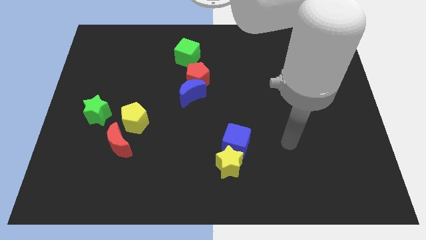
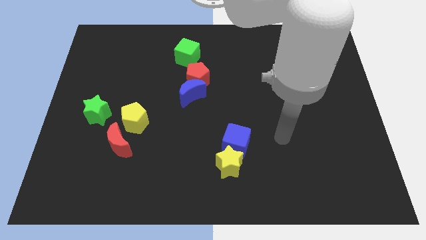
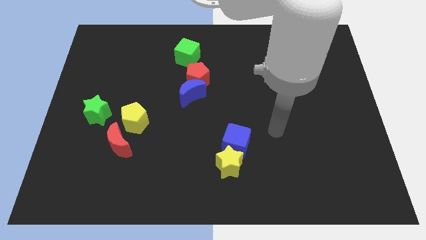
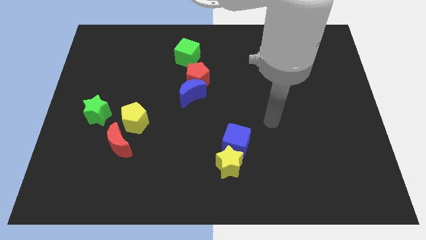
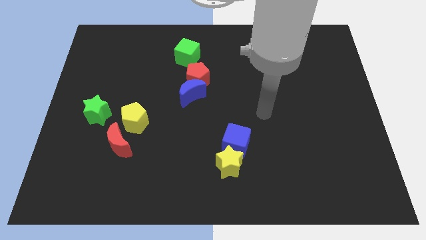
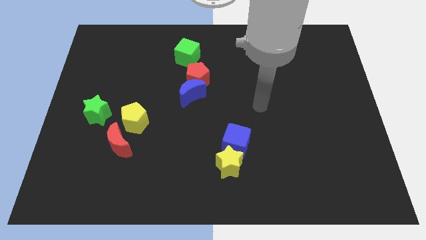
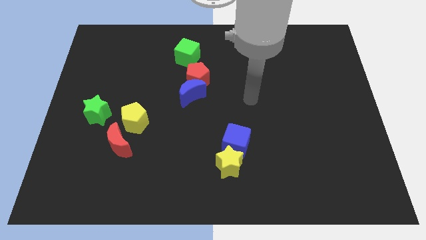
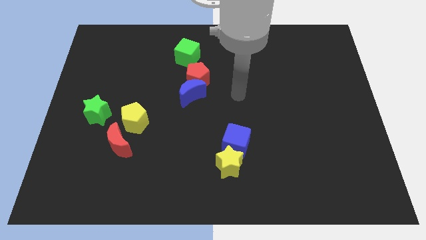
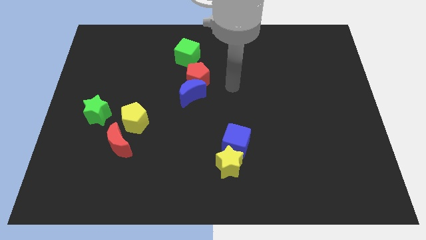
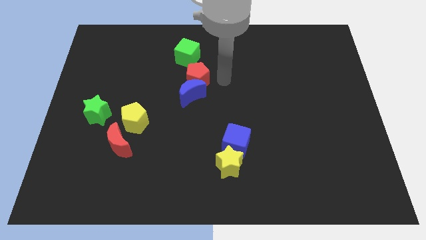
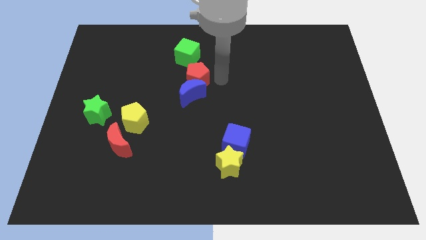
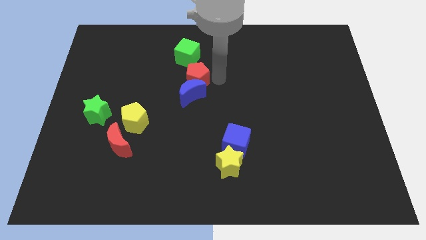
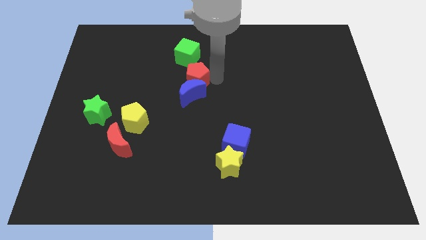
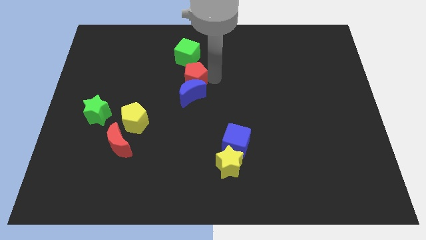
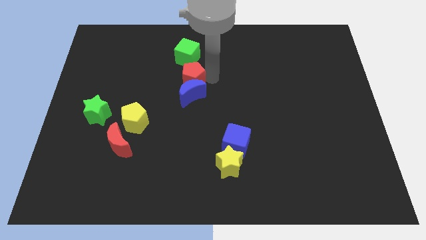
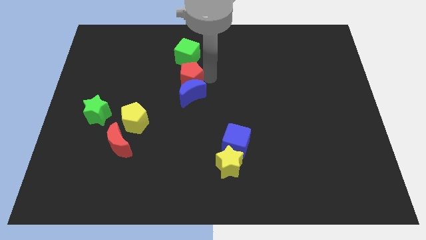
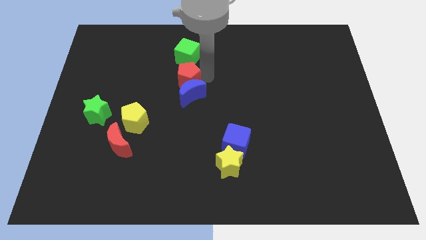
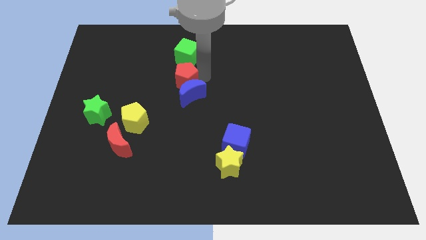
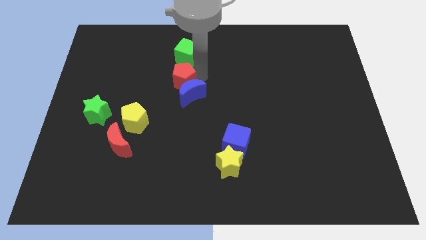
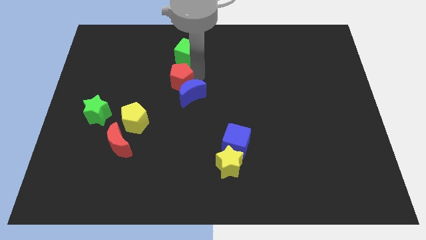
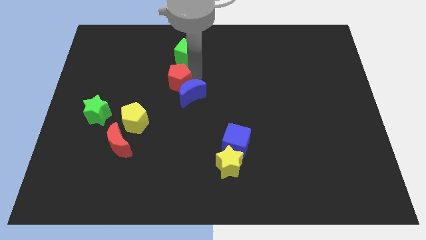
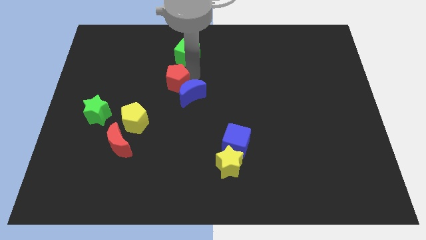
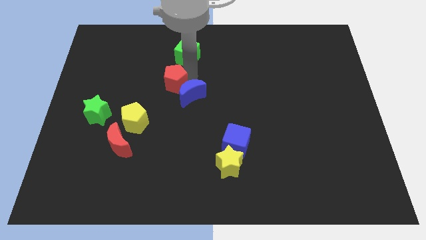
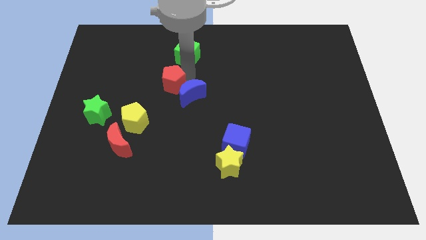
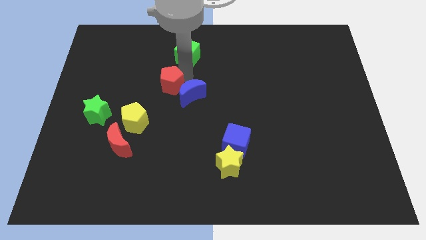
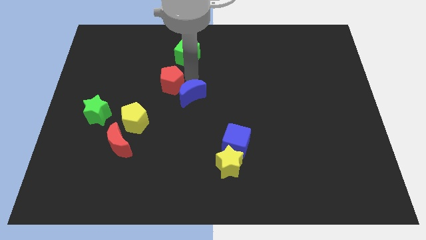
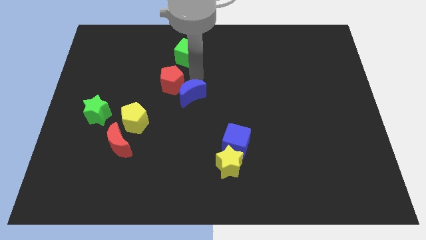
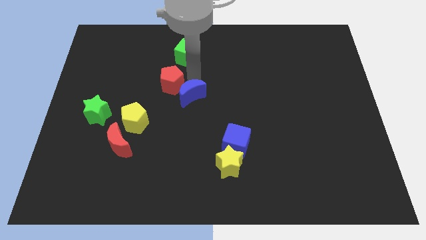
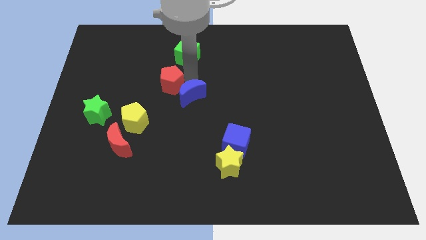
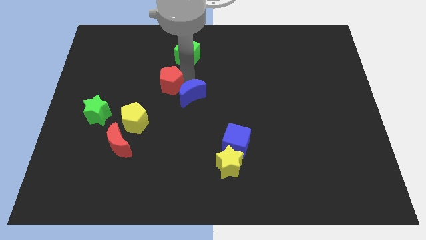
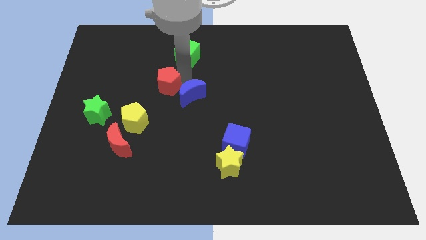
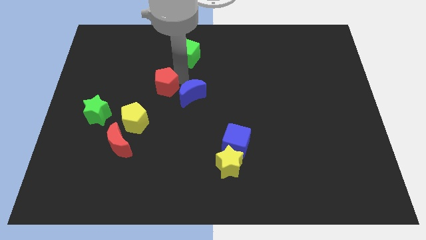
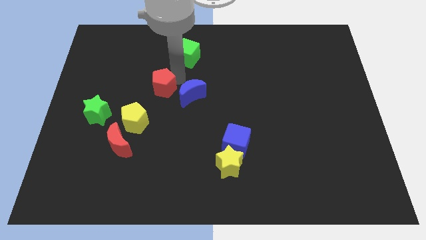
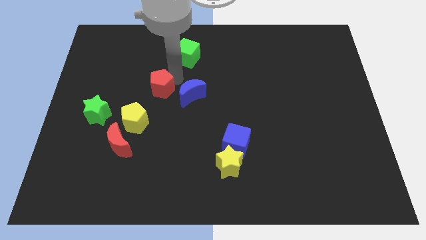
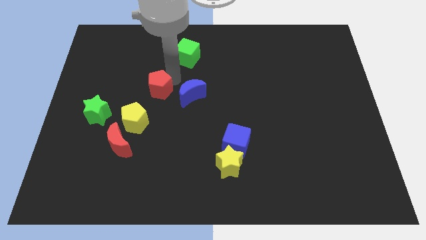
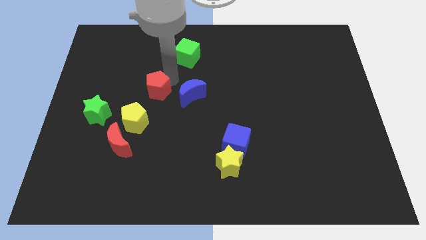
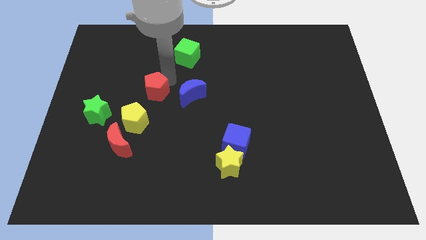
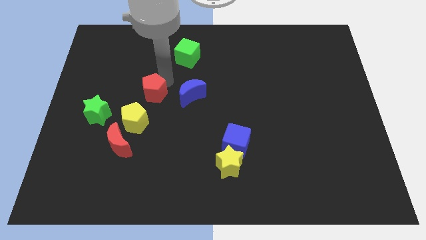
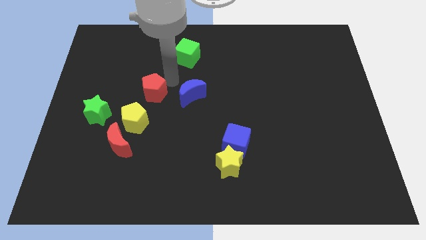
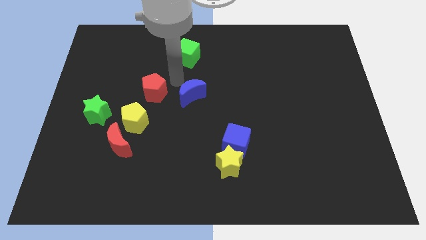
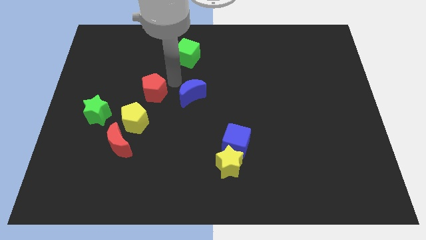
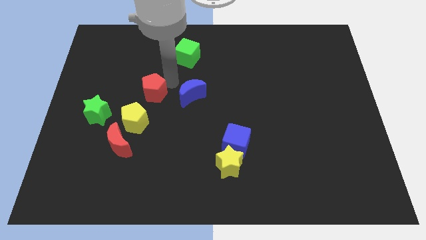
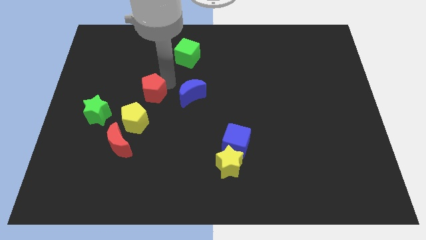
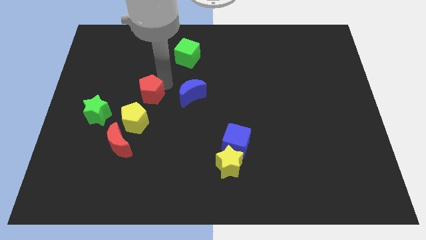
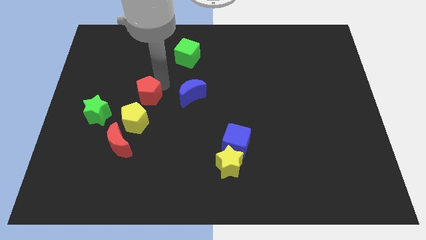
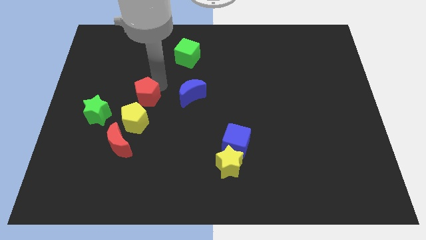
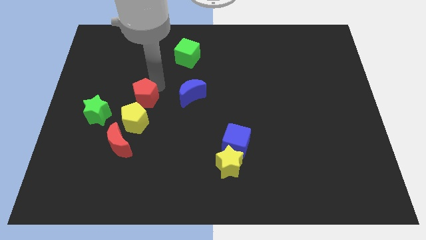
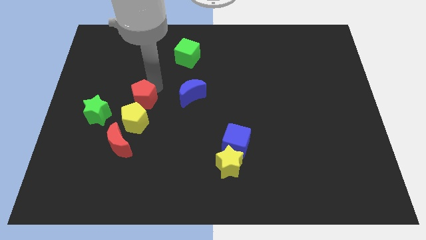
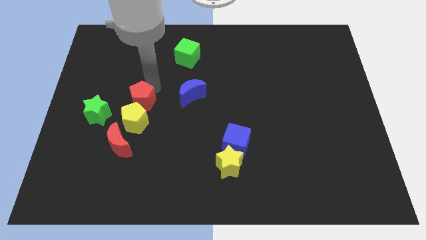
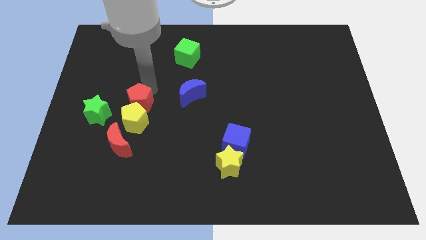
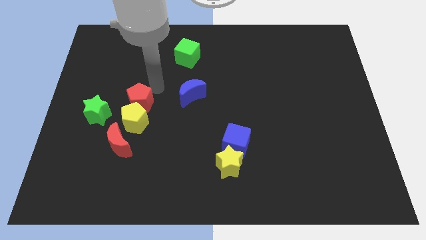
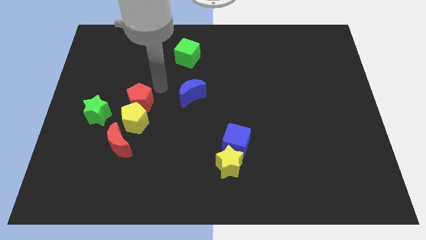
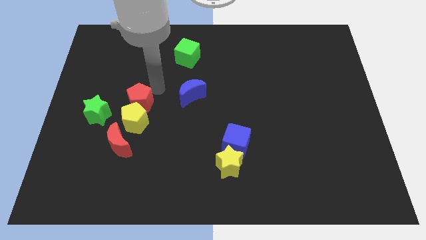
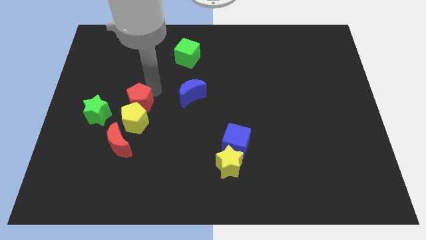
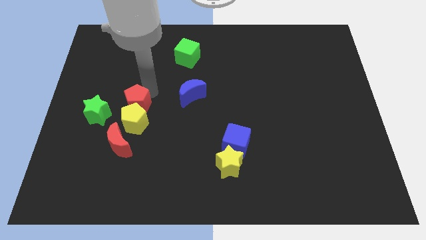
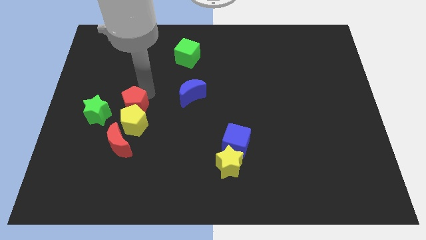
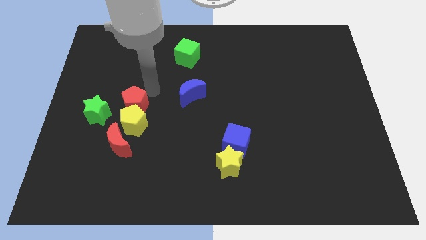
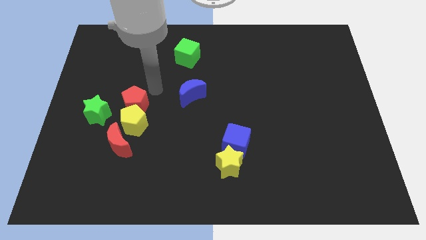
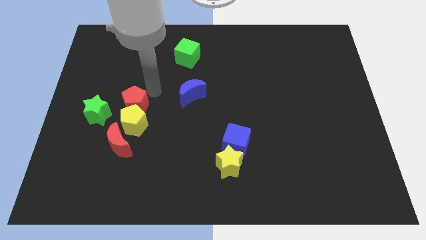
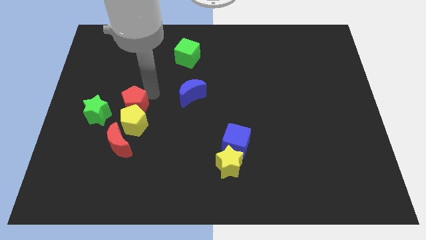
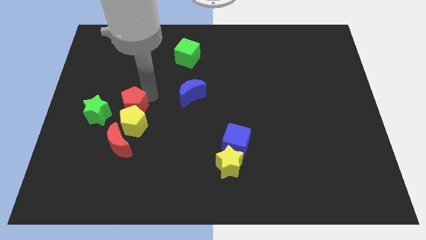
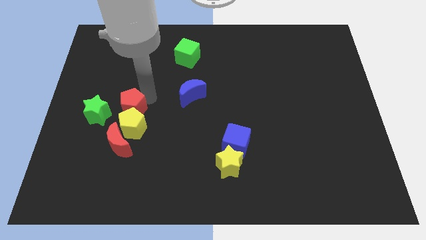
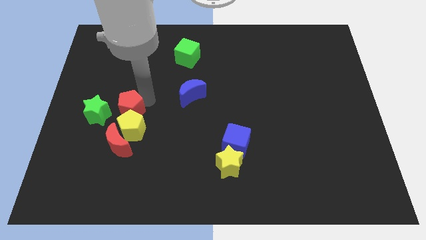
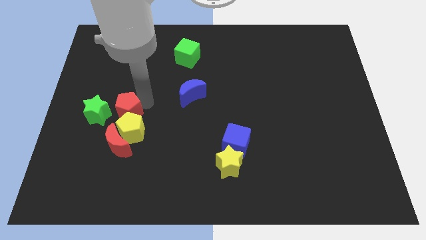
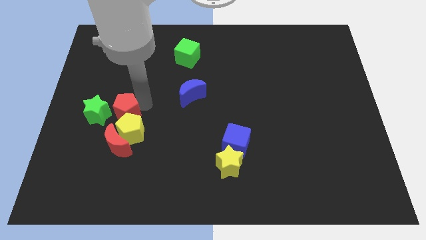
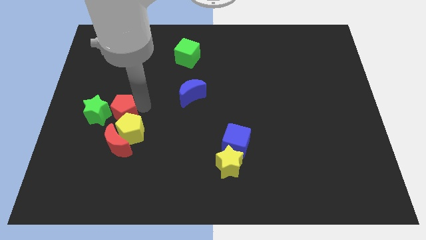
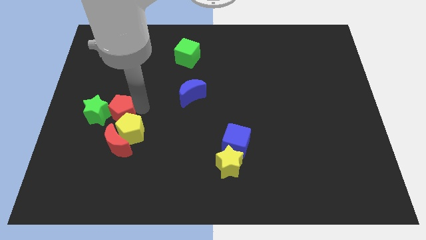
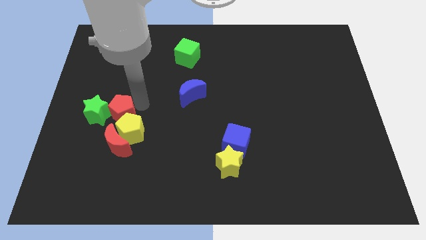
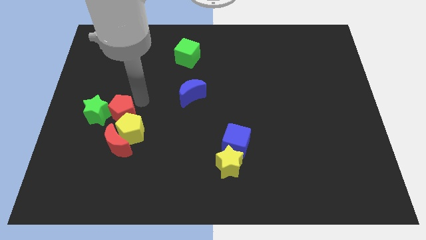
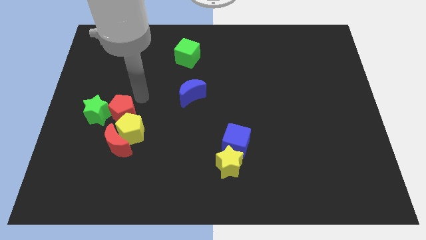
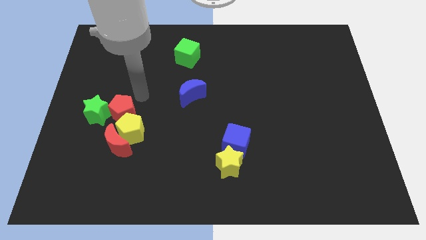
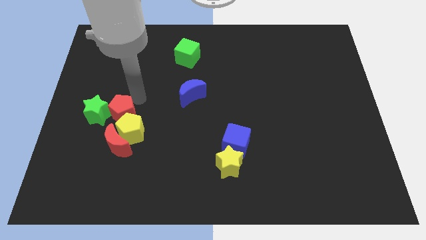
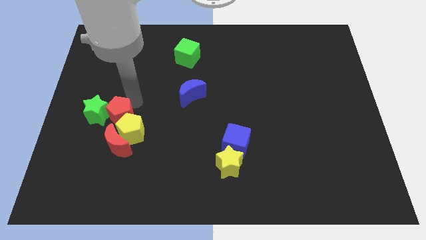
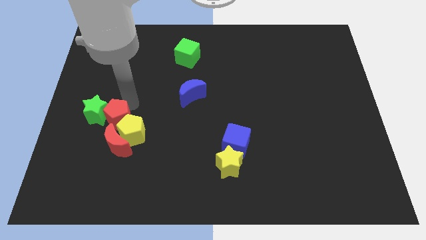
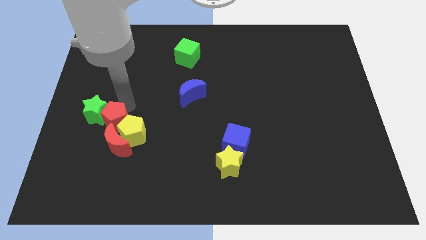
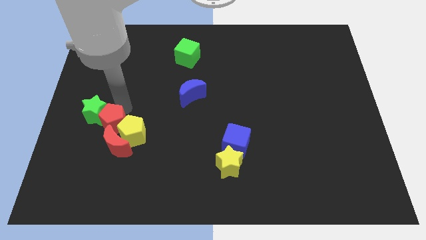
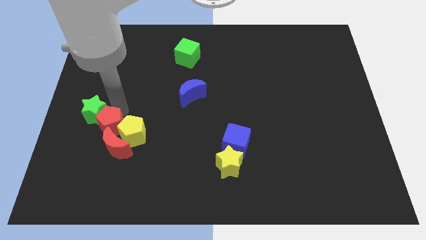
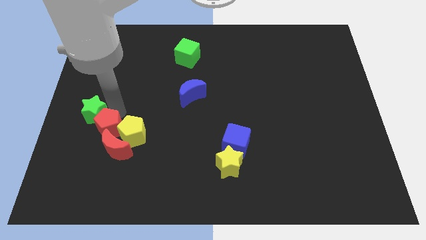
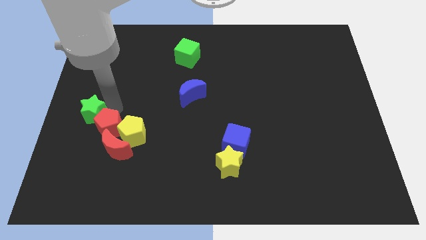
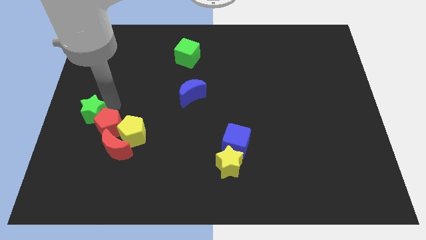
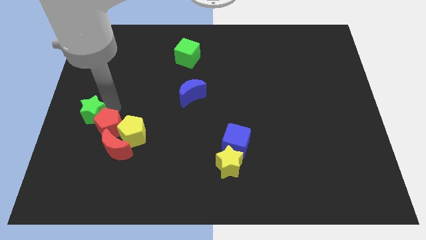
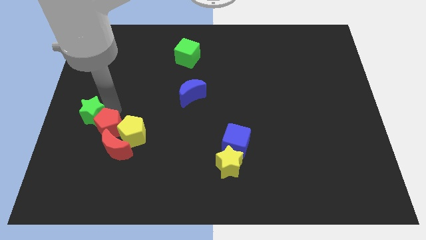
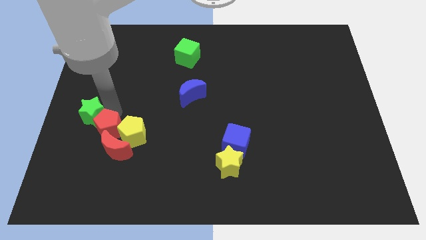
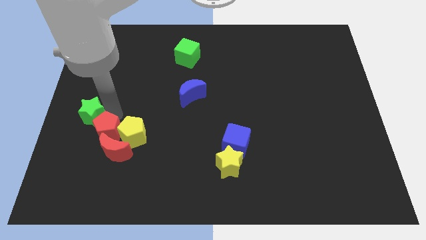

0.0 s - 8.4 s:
put the red pentagon to the bottom left side of the yellow pentagon
